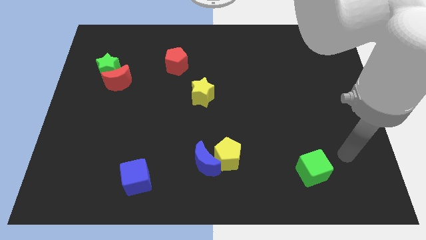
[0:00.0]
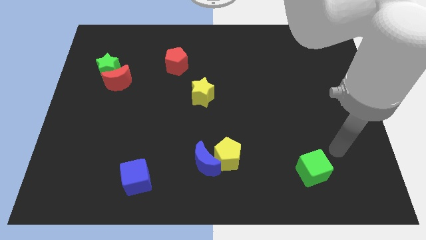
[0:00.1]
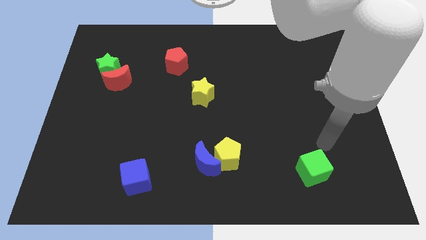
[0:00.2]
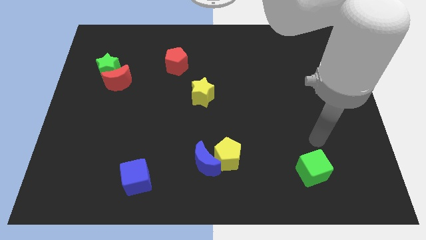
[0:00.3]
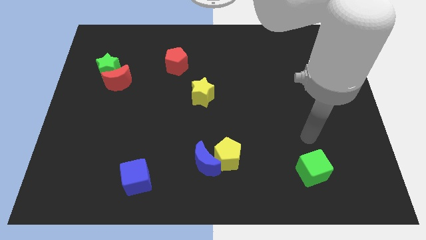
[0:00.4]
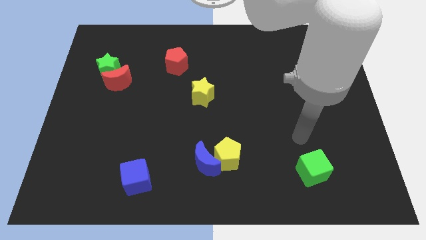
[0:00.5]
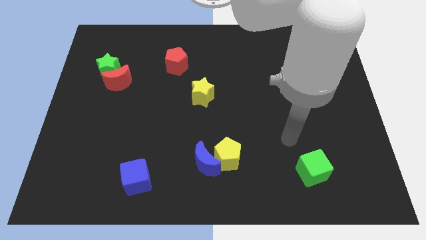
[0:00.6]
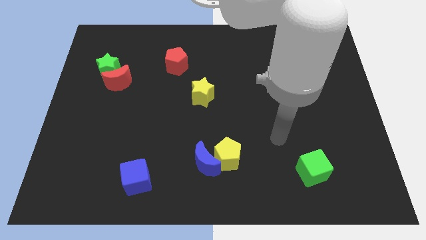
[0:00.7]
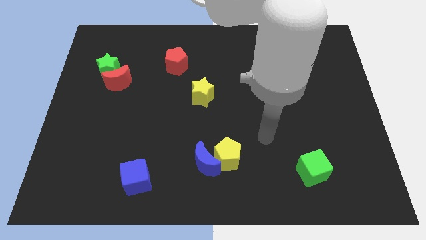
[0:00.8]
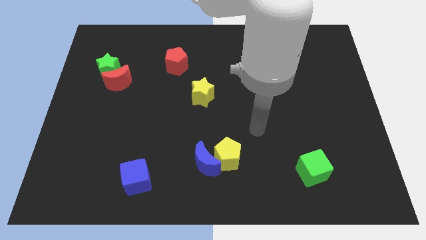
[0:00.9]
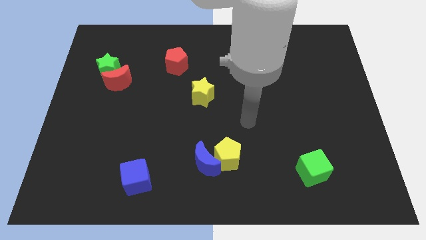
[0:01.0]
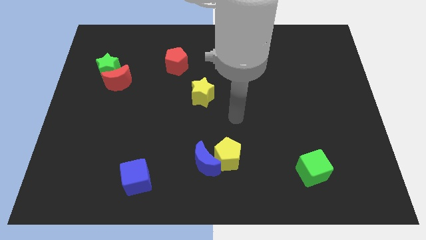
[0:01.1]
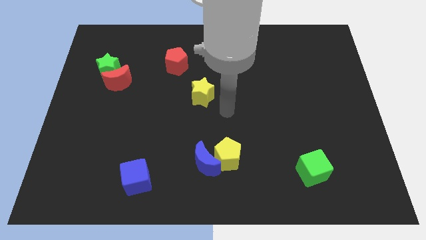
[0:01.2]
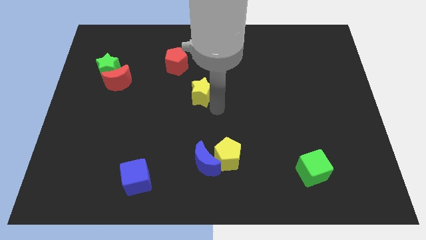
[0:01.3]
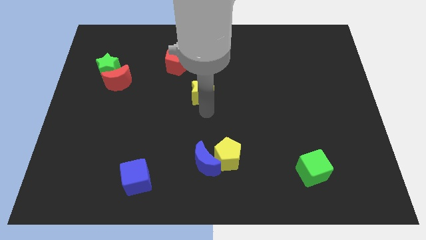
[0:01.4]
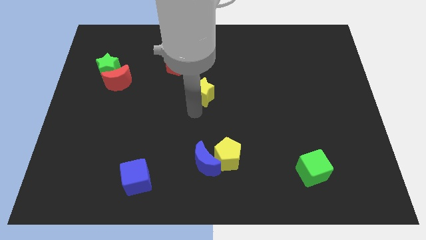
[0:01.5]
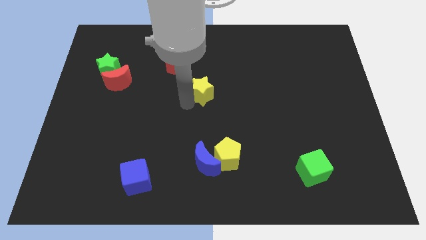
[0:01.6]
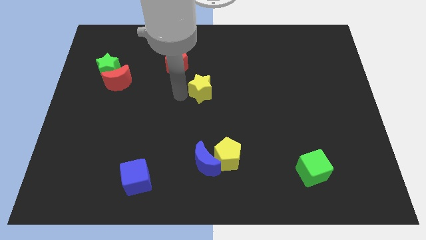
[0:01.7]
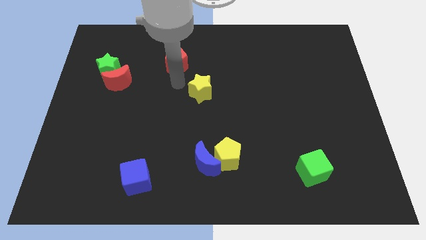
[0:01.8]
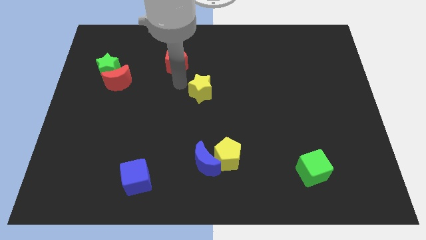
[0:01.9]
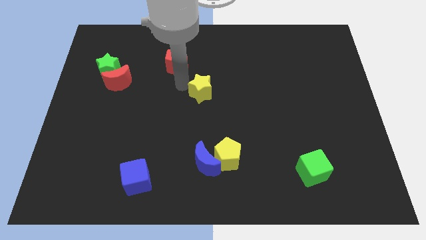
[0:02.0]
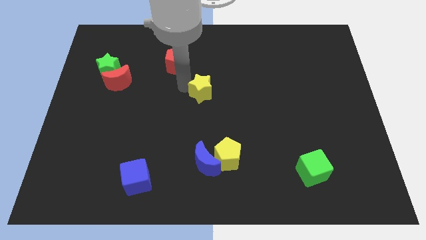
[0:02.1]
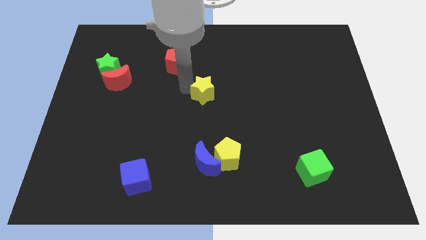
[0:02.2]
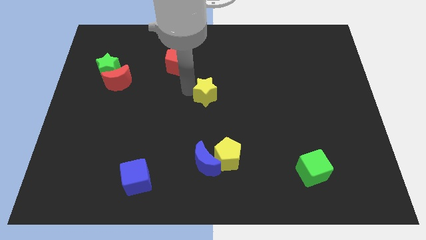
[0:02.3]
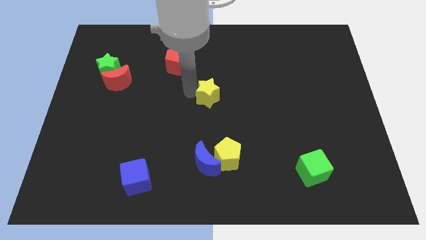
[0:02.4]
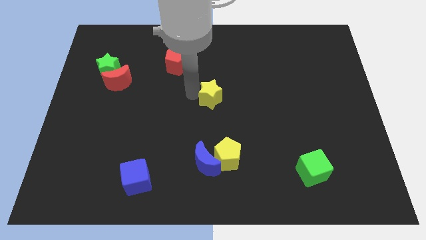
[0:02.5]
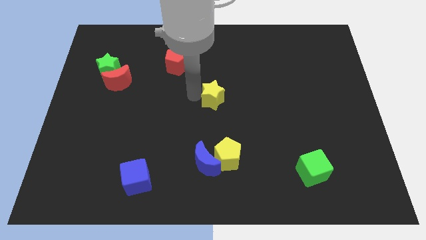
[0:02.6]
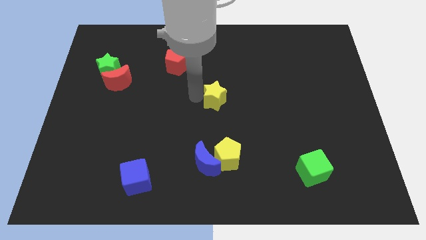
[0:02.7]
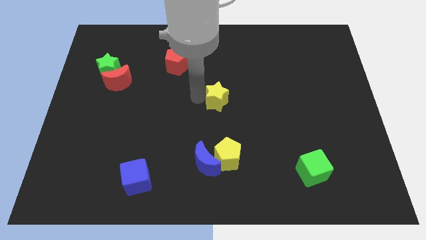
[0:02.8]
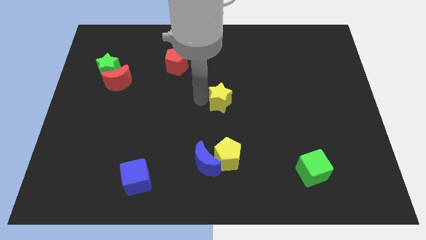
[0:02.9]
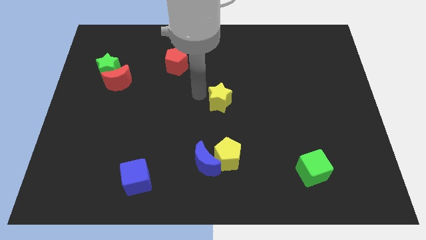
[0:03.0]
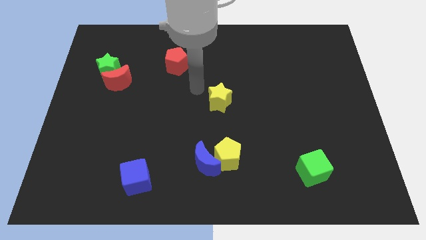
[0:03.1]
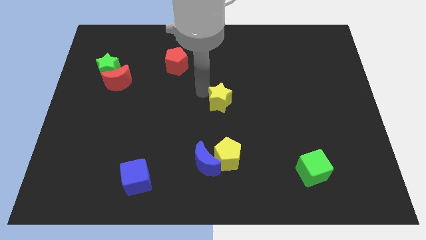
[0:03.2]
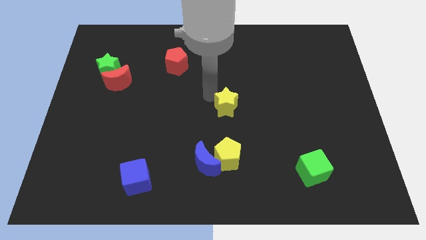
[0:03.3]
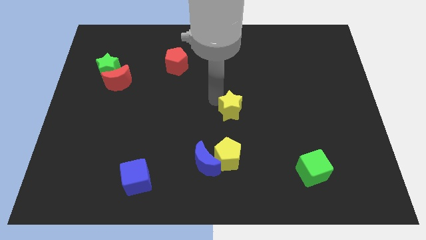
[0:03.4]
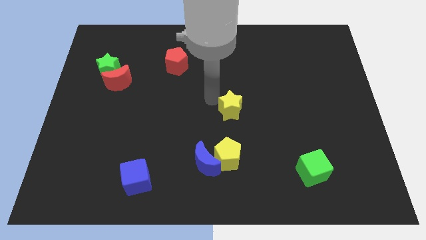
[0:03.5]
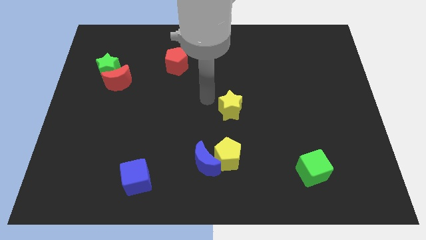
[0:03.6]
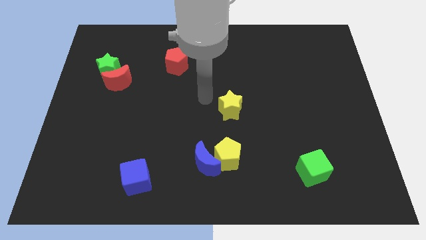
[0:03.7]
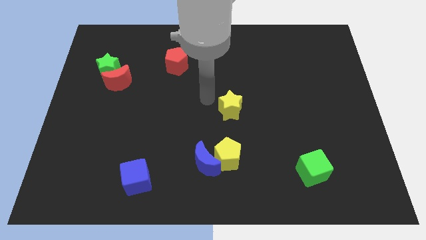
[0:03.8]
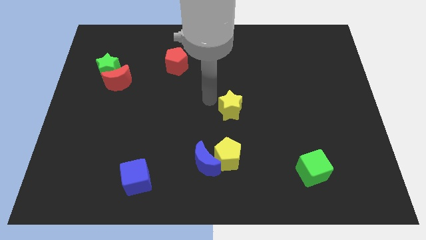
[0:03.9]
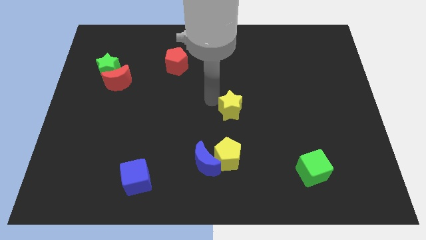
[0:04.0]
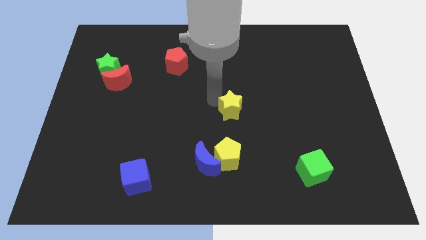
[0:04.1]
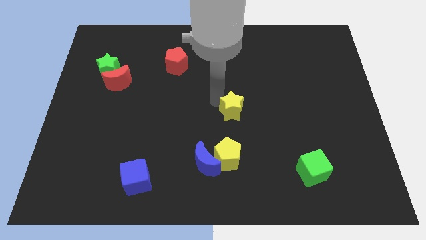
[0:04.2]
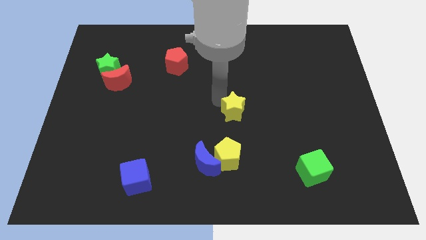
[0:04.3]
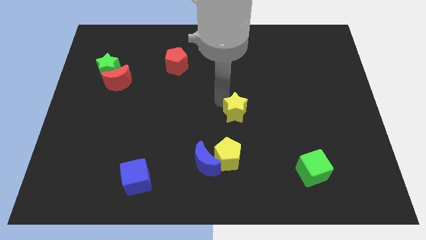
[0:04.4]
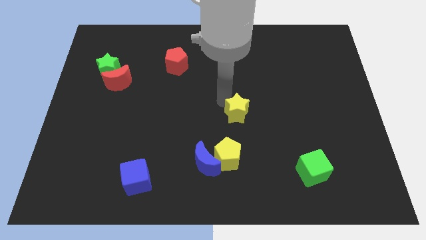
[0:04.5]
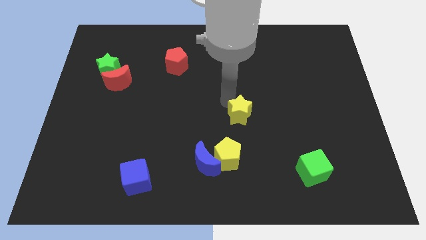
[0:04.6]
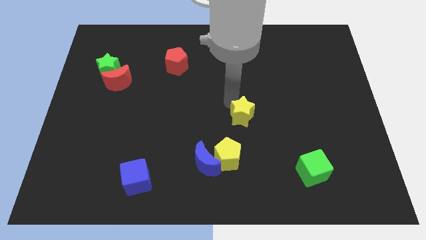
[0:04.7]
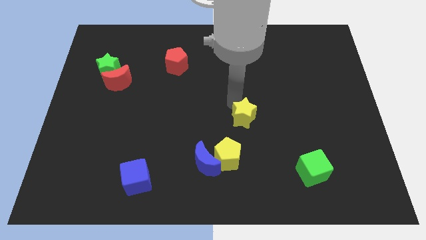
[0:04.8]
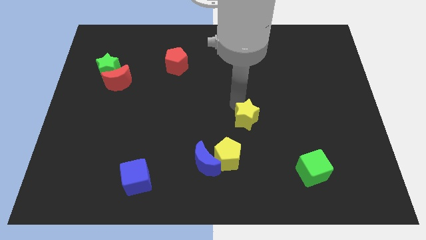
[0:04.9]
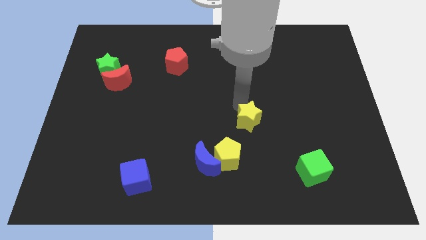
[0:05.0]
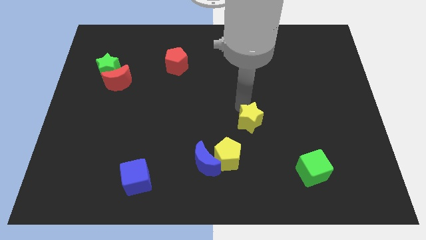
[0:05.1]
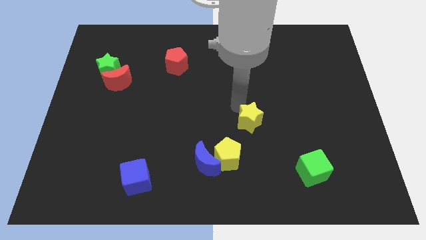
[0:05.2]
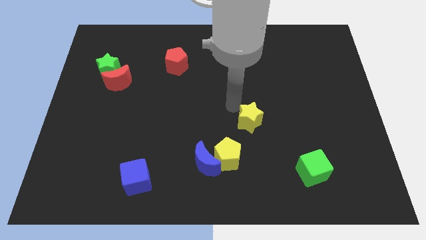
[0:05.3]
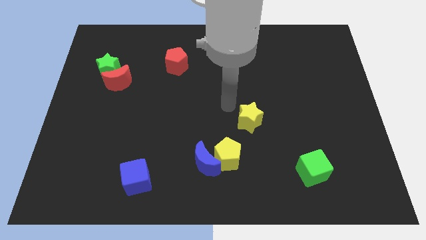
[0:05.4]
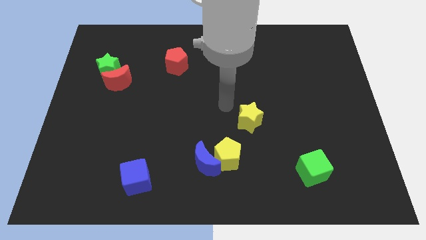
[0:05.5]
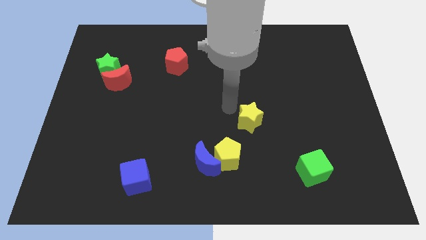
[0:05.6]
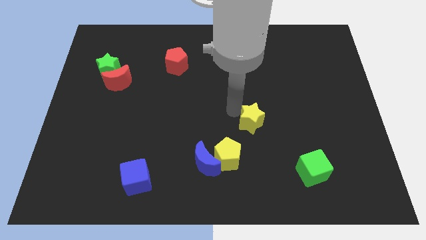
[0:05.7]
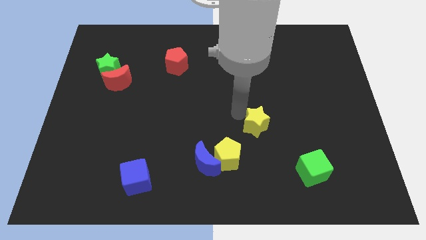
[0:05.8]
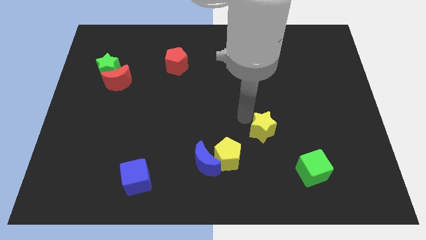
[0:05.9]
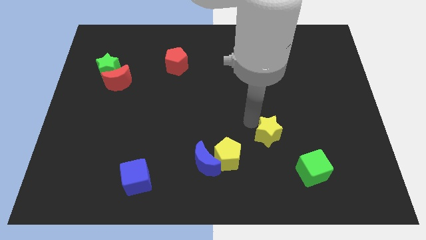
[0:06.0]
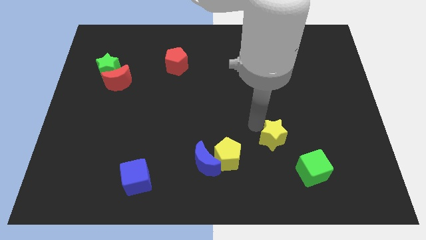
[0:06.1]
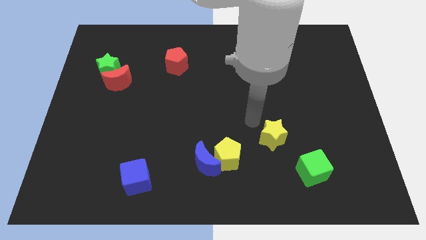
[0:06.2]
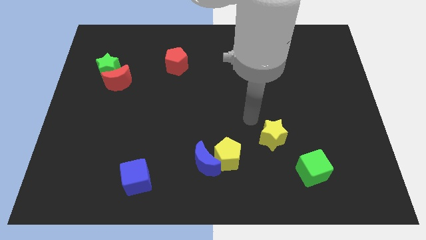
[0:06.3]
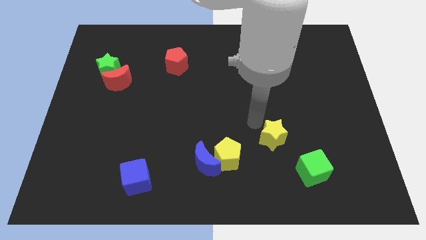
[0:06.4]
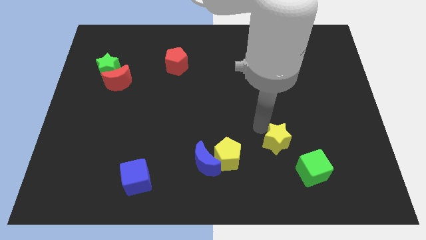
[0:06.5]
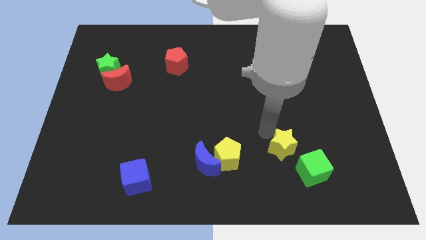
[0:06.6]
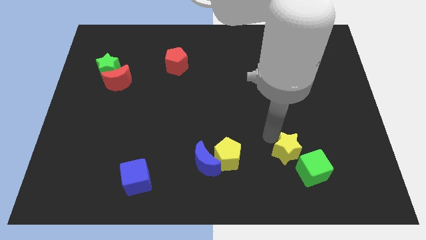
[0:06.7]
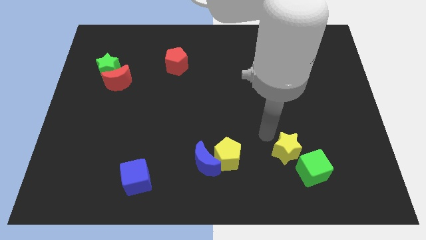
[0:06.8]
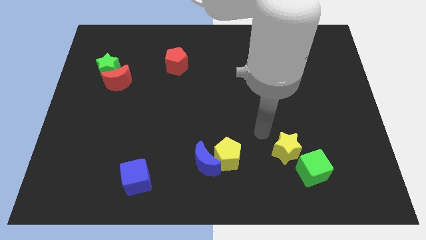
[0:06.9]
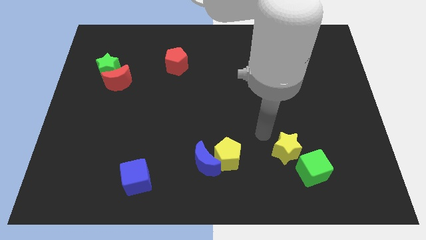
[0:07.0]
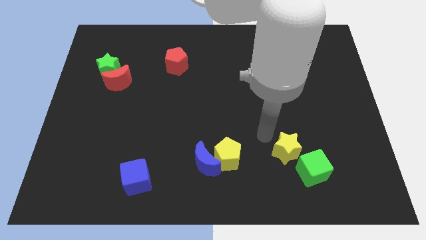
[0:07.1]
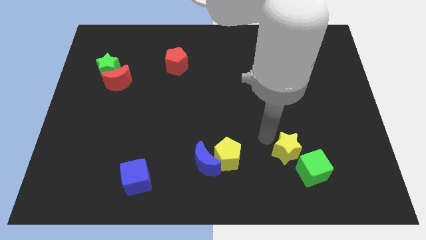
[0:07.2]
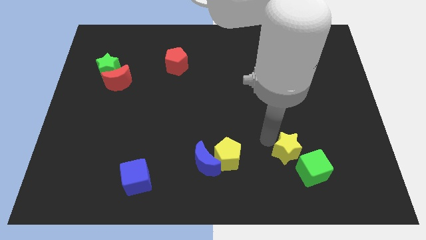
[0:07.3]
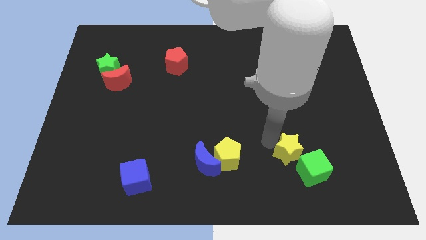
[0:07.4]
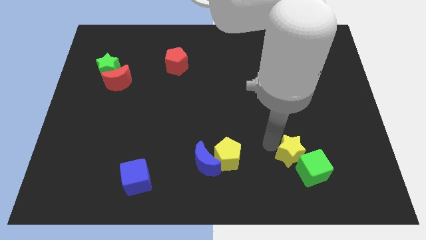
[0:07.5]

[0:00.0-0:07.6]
put the yellow star close to the green cube
